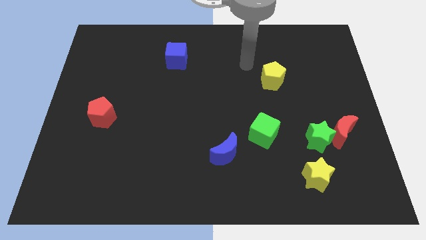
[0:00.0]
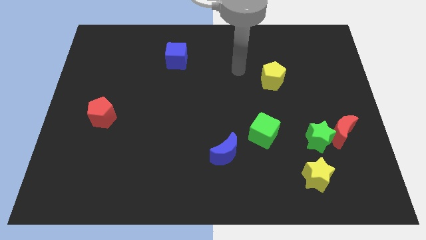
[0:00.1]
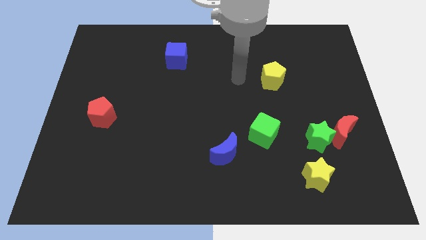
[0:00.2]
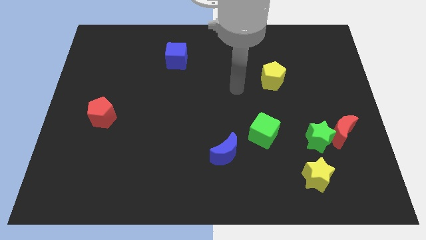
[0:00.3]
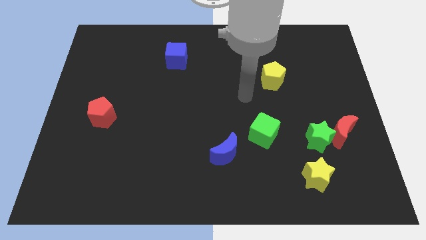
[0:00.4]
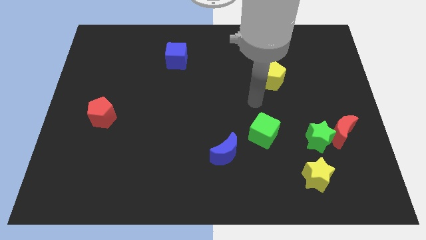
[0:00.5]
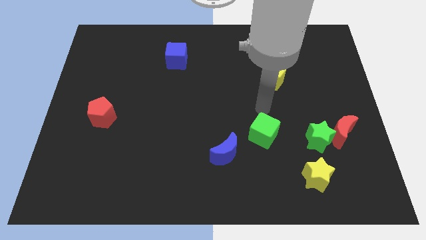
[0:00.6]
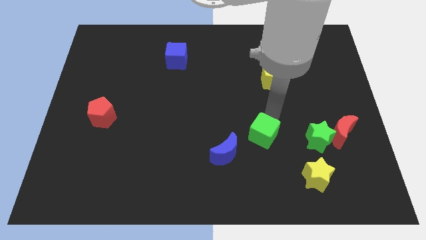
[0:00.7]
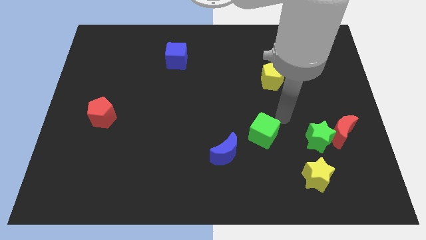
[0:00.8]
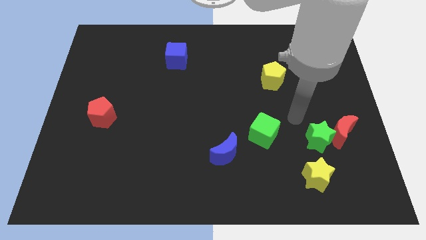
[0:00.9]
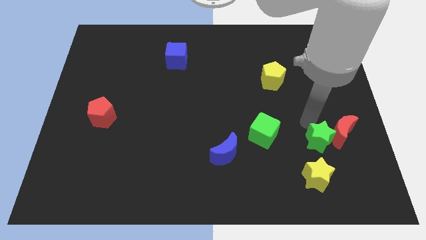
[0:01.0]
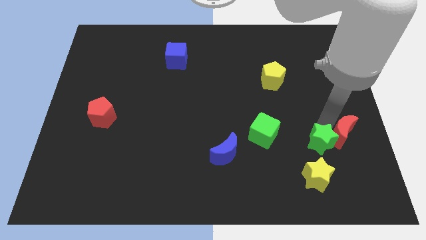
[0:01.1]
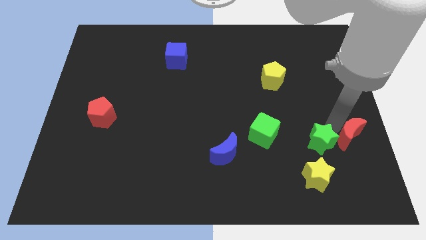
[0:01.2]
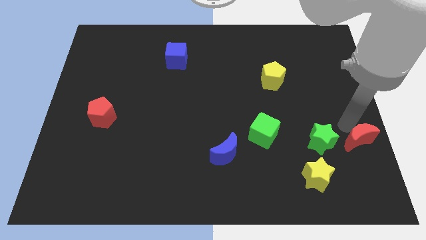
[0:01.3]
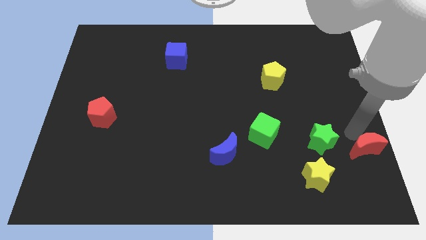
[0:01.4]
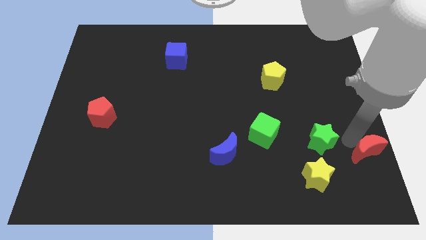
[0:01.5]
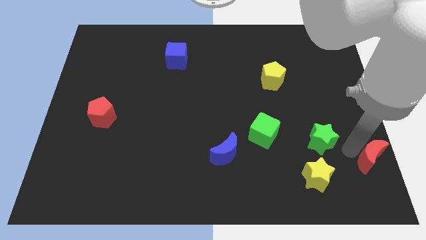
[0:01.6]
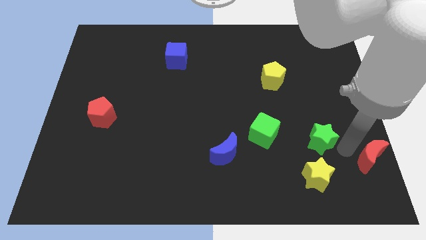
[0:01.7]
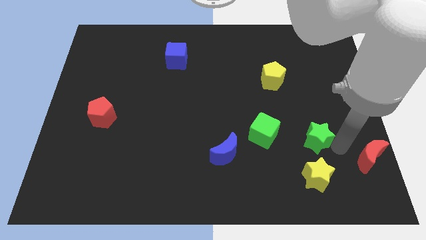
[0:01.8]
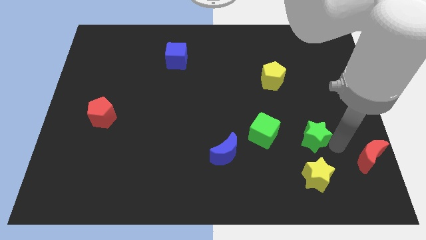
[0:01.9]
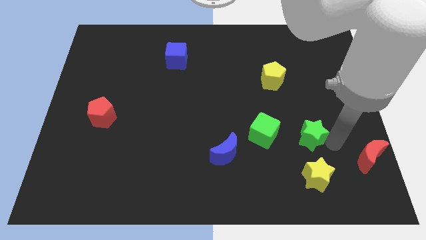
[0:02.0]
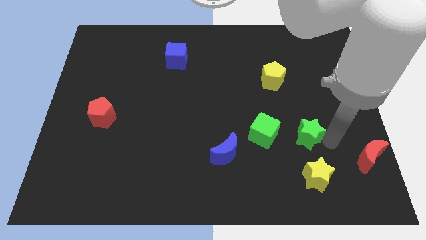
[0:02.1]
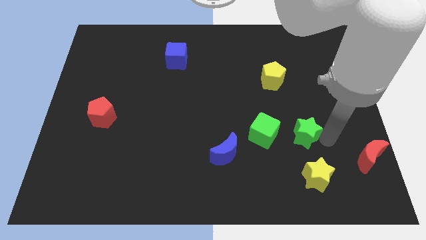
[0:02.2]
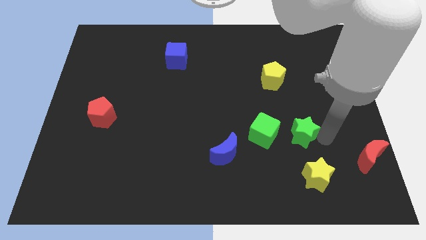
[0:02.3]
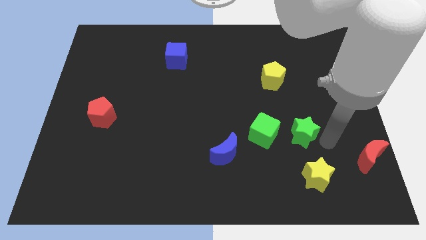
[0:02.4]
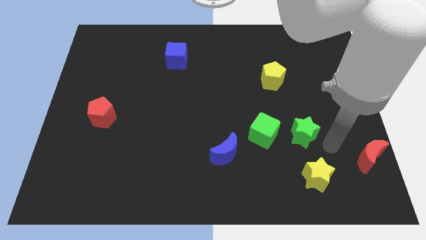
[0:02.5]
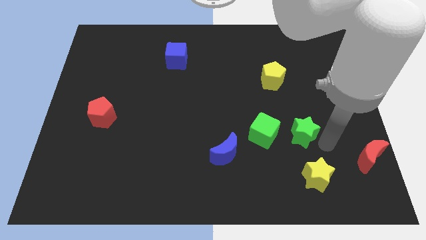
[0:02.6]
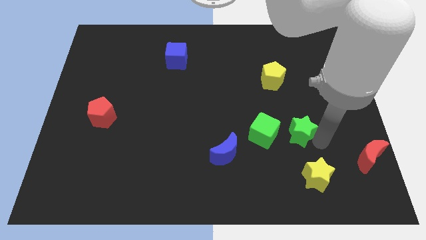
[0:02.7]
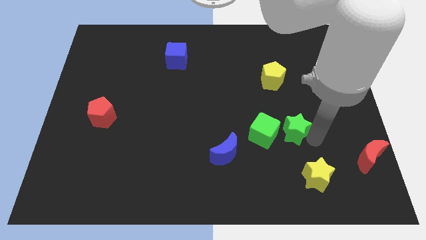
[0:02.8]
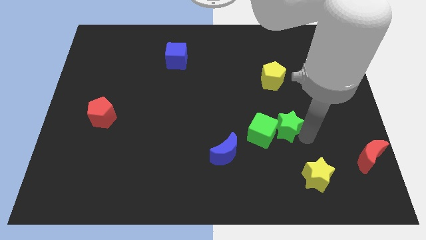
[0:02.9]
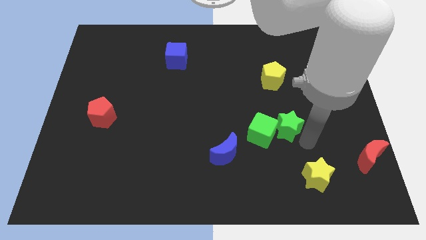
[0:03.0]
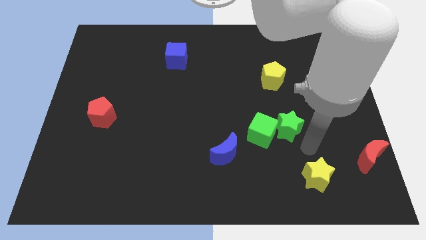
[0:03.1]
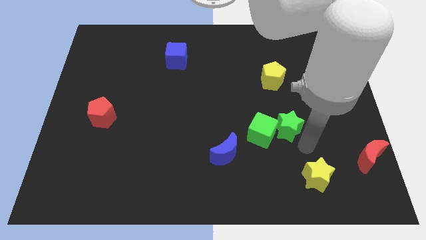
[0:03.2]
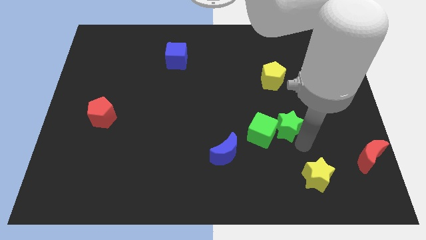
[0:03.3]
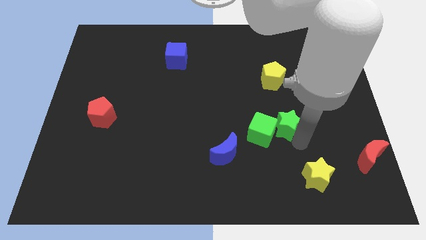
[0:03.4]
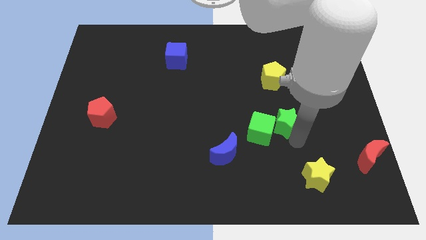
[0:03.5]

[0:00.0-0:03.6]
slide the green star a little up and left

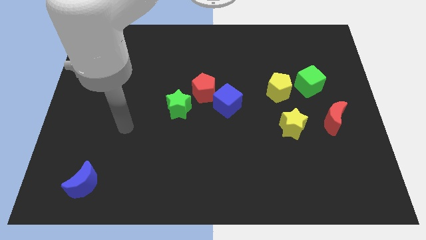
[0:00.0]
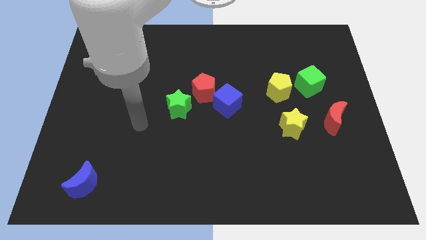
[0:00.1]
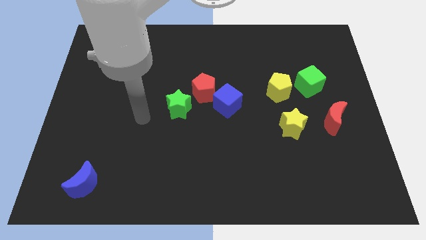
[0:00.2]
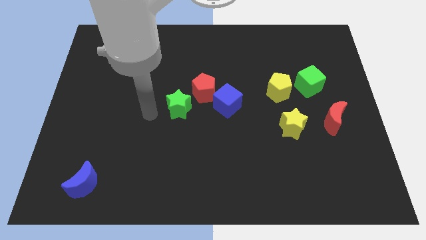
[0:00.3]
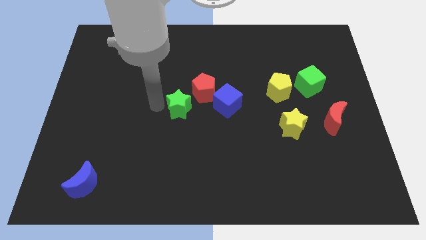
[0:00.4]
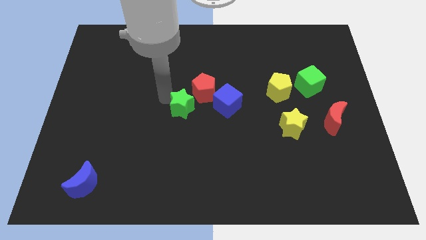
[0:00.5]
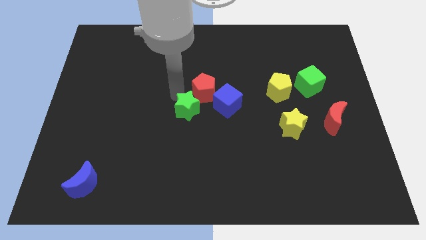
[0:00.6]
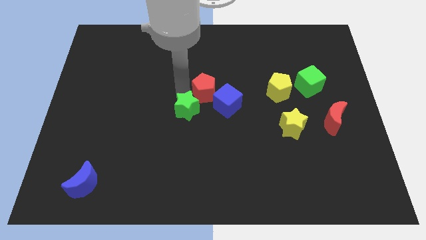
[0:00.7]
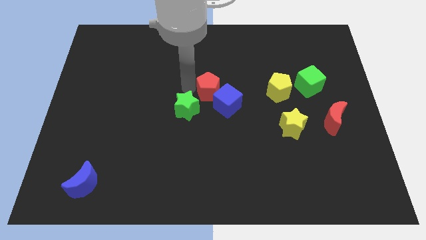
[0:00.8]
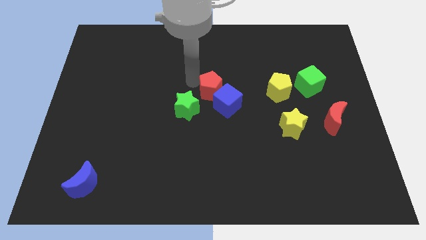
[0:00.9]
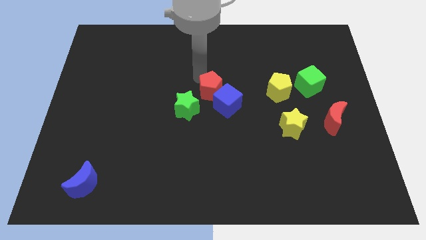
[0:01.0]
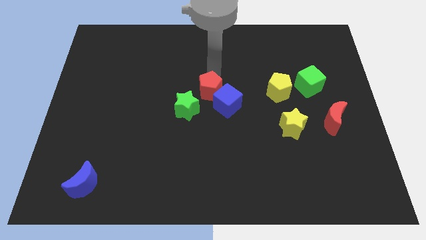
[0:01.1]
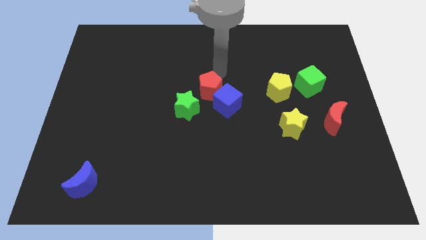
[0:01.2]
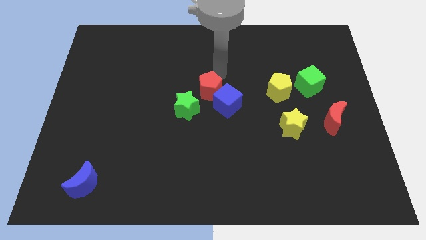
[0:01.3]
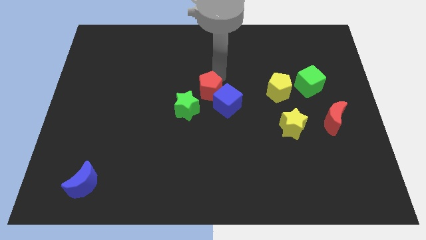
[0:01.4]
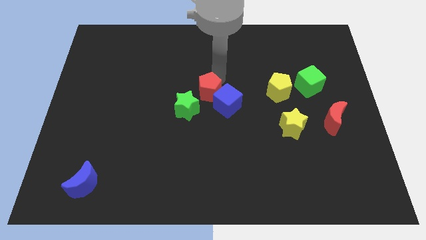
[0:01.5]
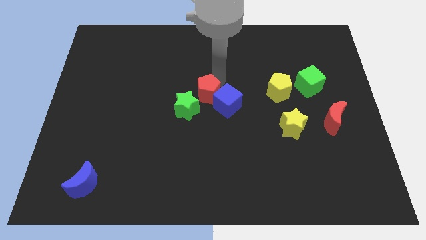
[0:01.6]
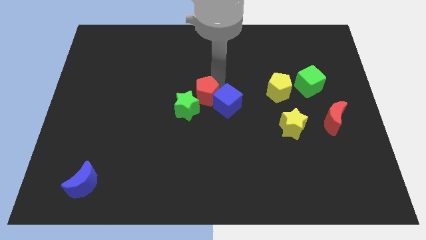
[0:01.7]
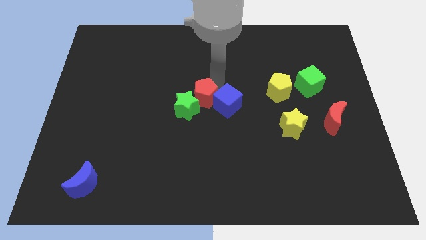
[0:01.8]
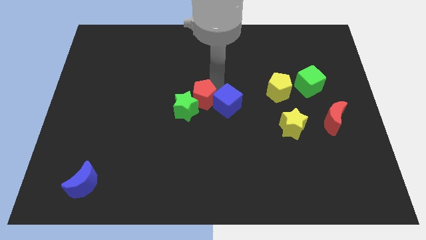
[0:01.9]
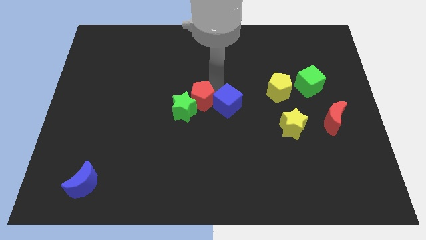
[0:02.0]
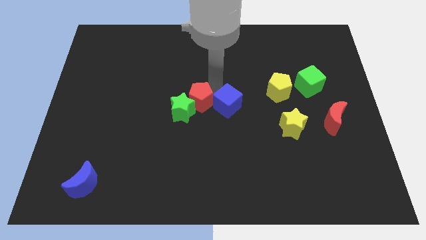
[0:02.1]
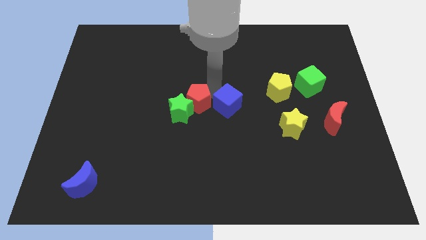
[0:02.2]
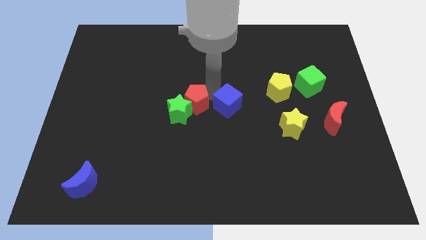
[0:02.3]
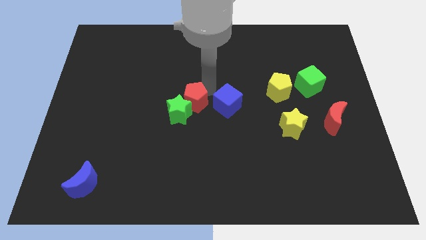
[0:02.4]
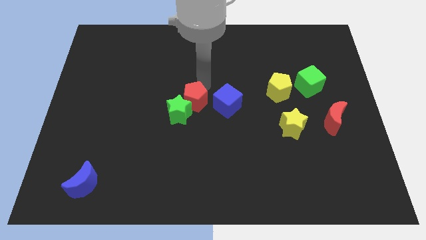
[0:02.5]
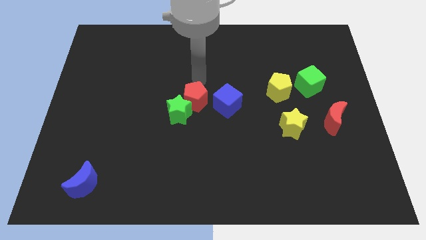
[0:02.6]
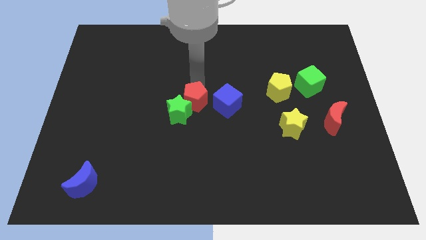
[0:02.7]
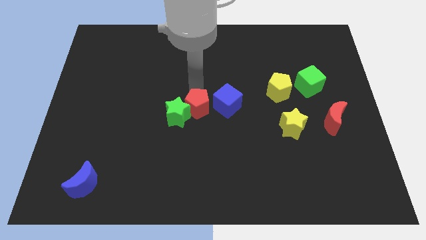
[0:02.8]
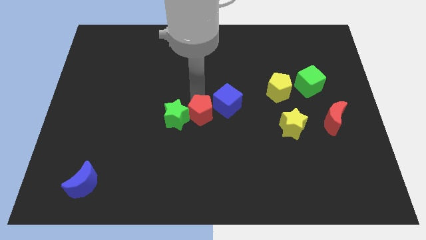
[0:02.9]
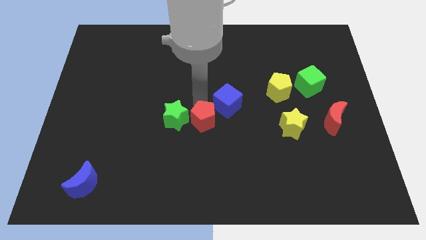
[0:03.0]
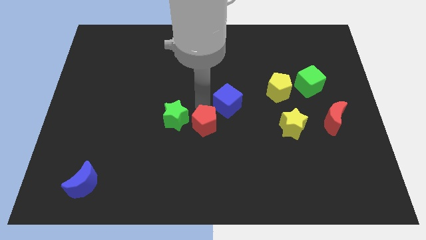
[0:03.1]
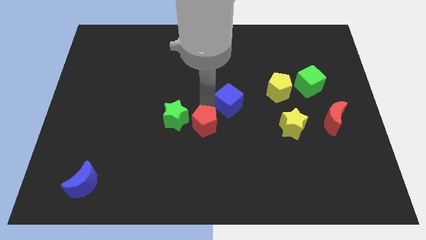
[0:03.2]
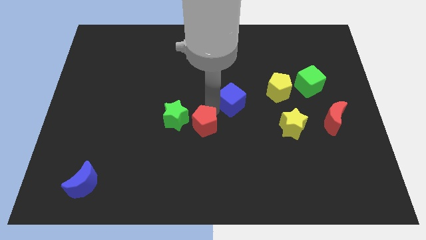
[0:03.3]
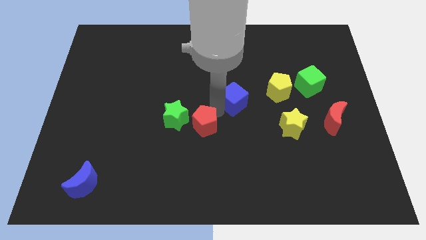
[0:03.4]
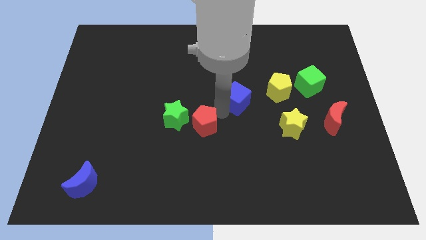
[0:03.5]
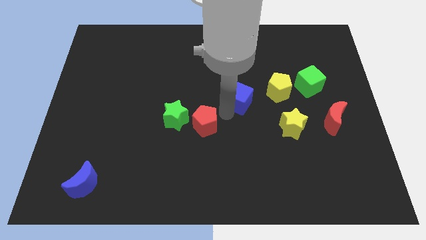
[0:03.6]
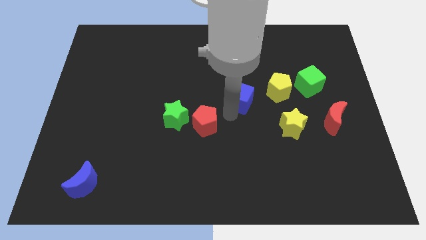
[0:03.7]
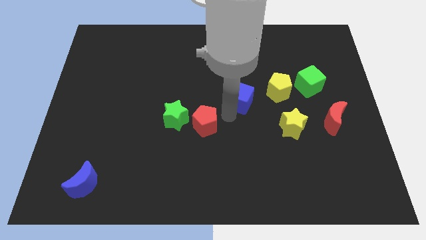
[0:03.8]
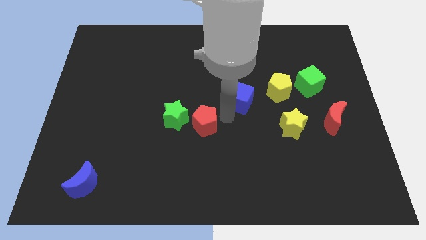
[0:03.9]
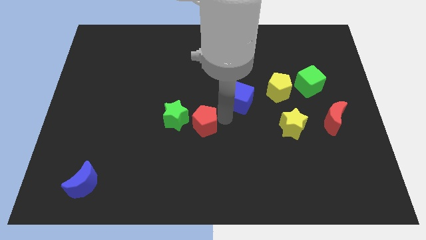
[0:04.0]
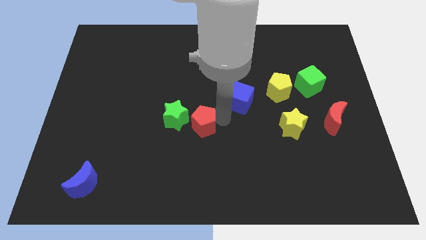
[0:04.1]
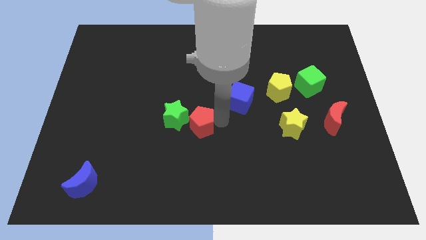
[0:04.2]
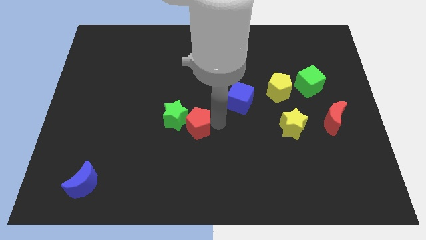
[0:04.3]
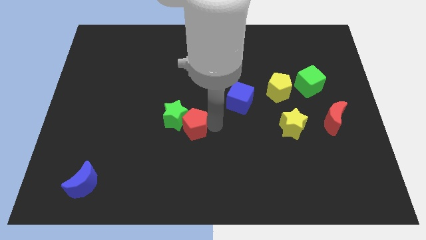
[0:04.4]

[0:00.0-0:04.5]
move the red pentagon diagonally down and left slightly

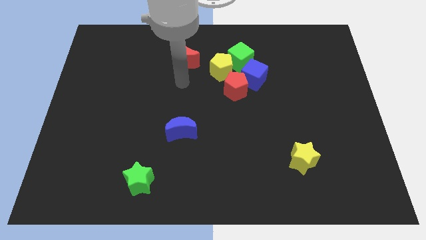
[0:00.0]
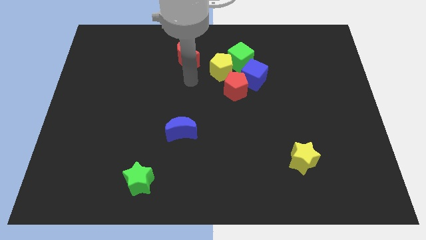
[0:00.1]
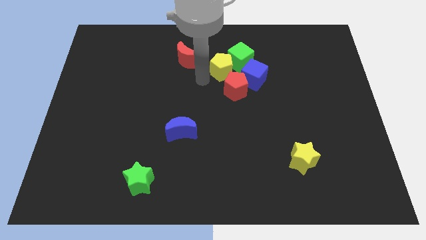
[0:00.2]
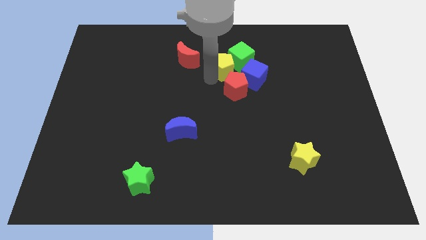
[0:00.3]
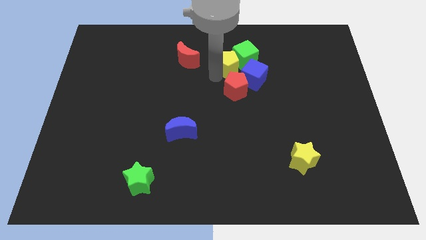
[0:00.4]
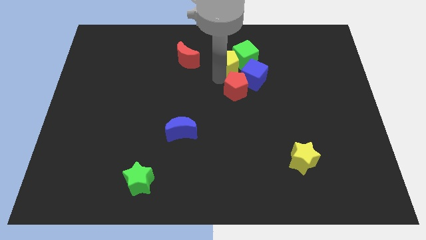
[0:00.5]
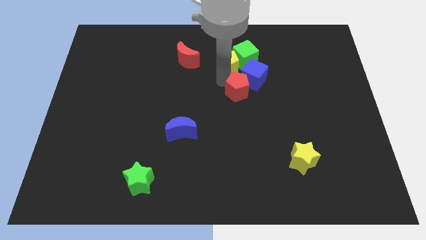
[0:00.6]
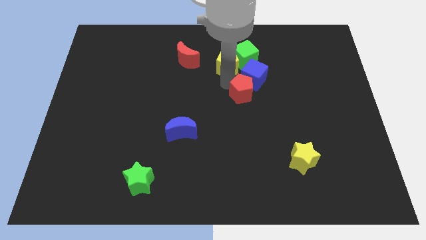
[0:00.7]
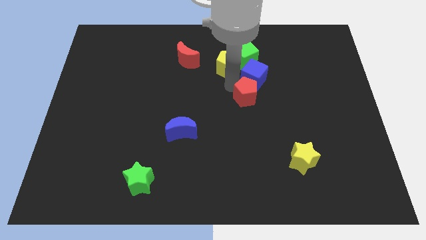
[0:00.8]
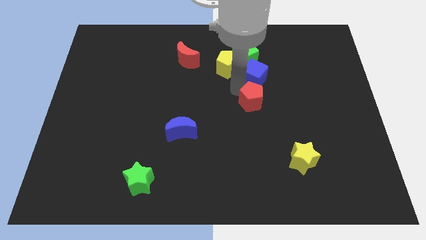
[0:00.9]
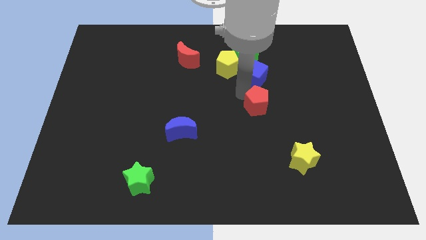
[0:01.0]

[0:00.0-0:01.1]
slide the red pentagon downwards and right diagonally slightly
